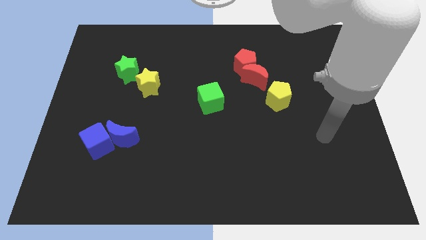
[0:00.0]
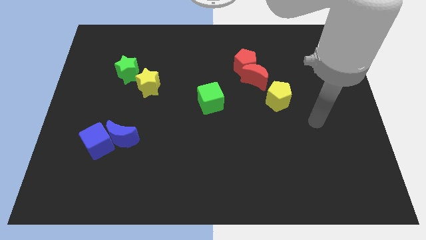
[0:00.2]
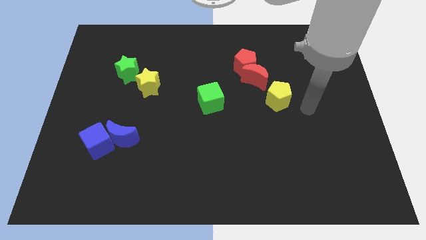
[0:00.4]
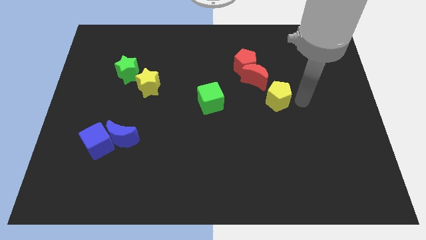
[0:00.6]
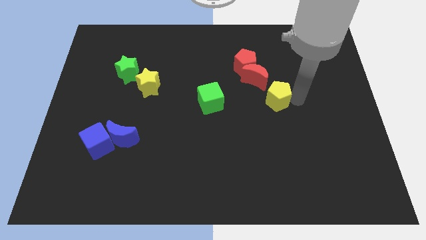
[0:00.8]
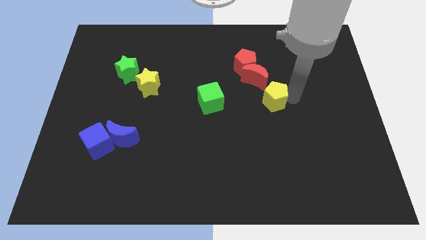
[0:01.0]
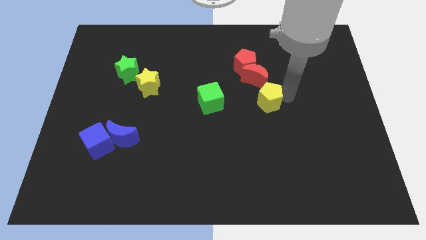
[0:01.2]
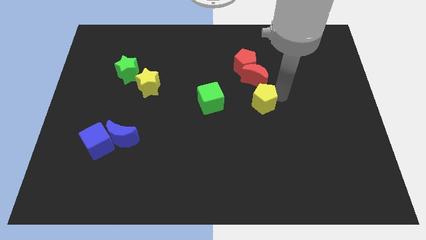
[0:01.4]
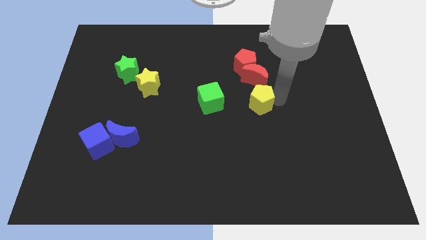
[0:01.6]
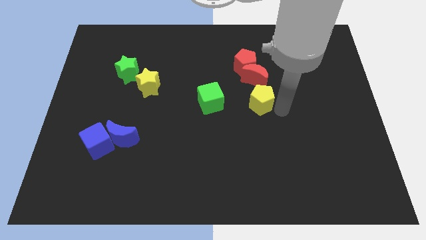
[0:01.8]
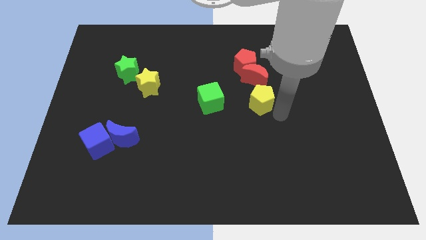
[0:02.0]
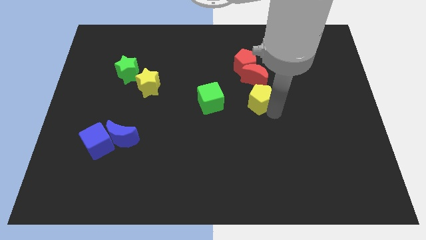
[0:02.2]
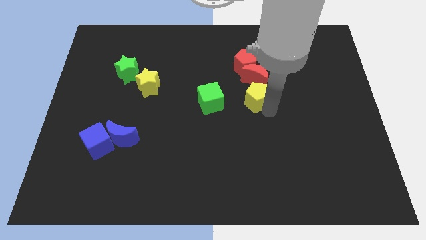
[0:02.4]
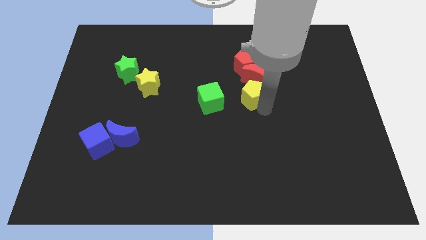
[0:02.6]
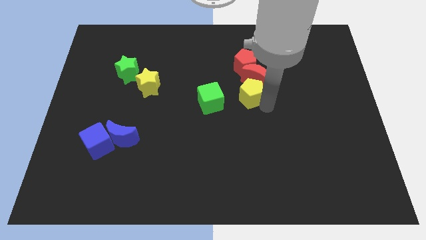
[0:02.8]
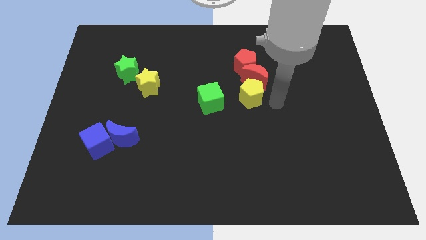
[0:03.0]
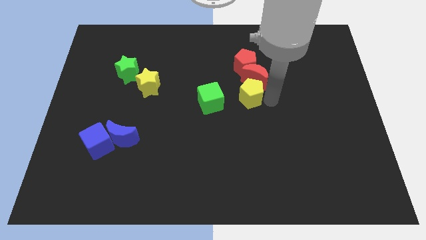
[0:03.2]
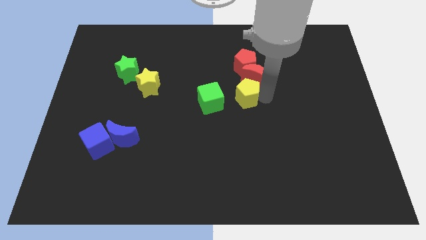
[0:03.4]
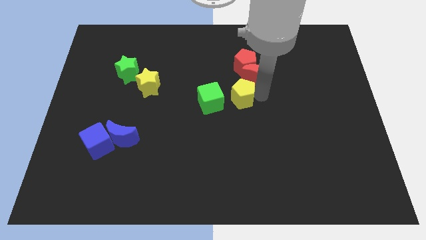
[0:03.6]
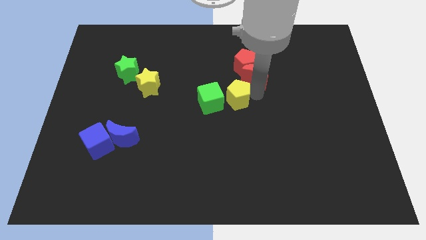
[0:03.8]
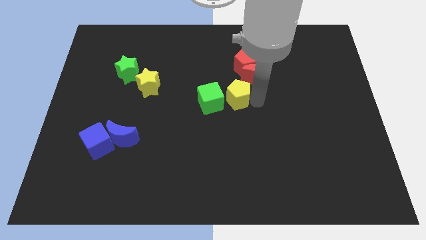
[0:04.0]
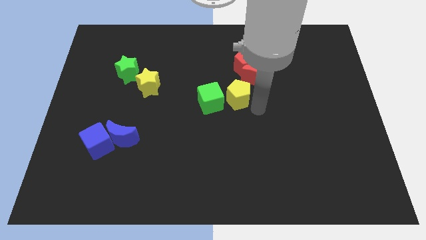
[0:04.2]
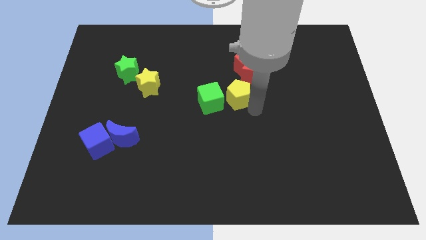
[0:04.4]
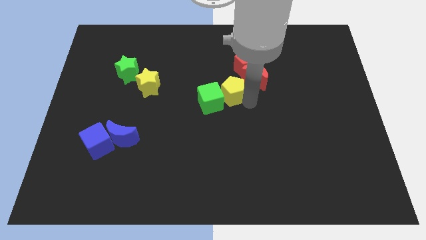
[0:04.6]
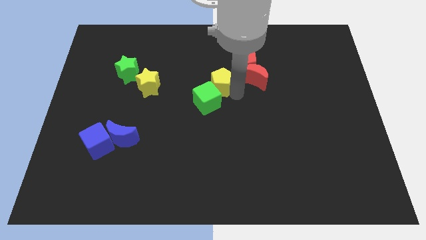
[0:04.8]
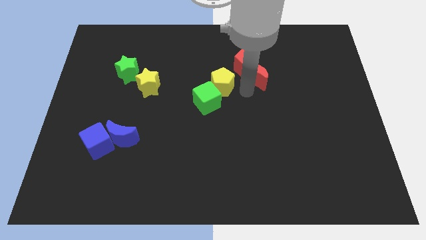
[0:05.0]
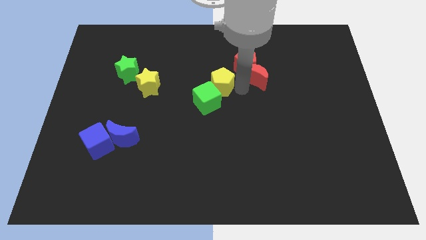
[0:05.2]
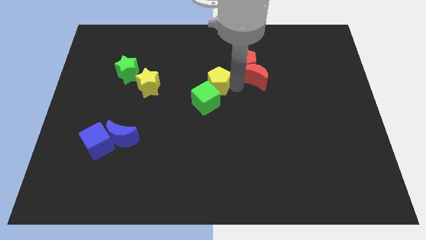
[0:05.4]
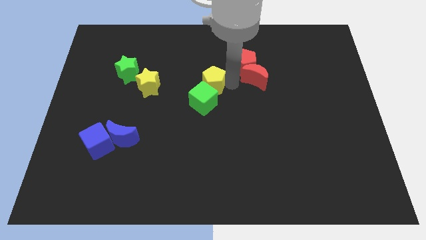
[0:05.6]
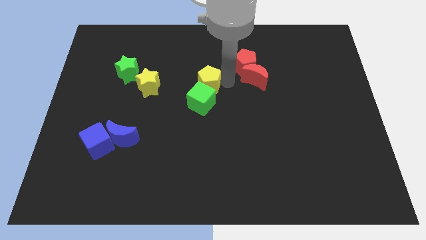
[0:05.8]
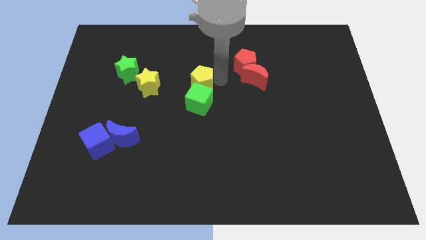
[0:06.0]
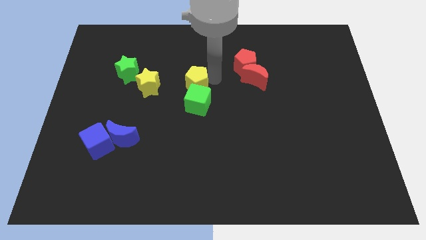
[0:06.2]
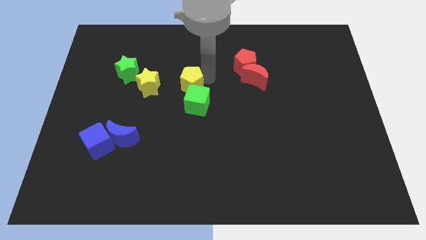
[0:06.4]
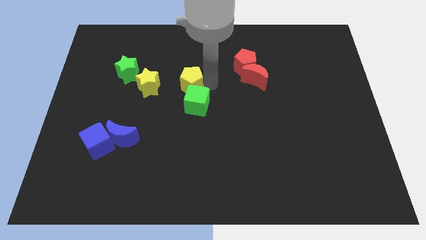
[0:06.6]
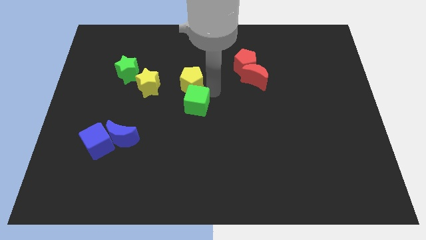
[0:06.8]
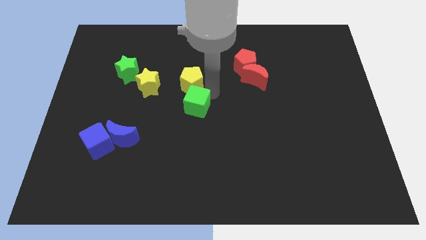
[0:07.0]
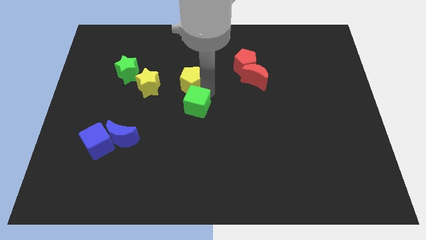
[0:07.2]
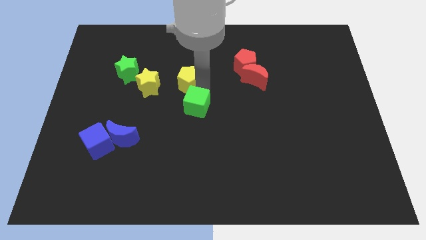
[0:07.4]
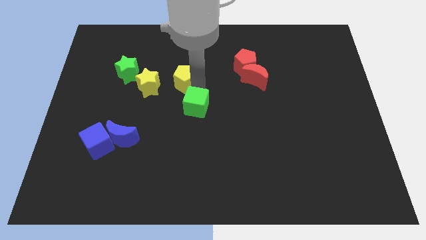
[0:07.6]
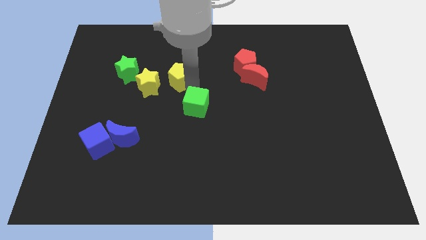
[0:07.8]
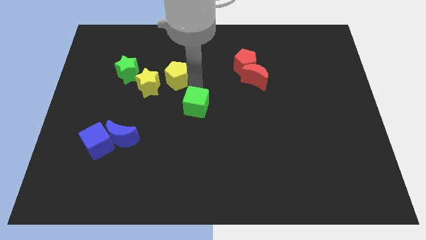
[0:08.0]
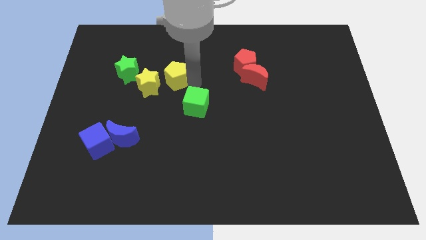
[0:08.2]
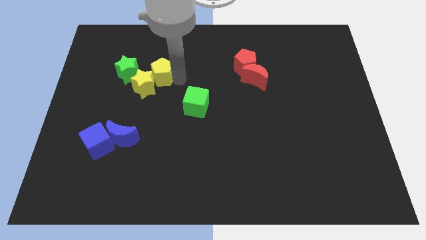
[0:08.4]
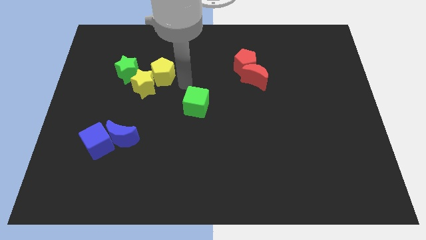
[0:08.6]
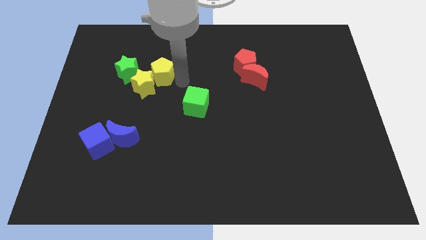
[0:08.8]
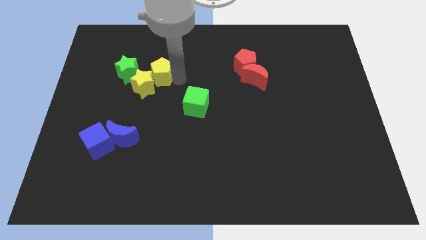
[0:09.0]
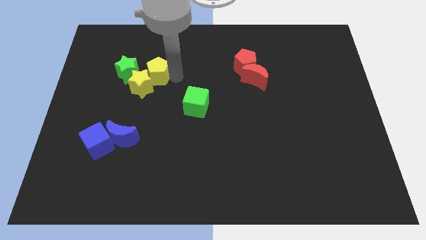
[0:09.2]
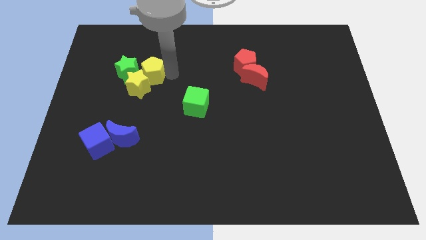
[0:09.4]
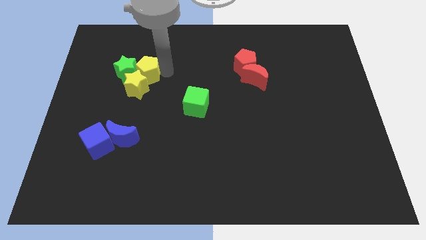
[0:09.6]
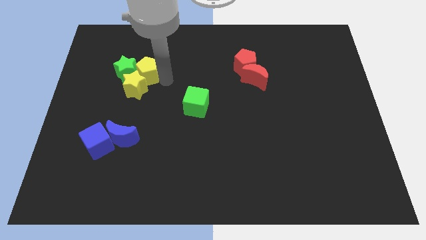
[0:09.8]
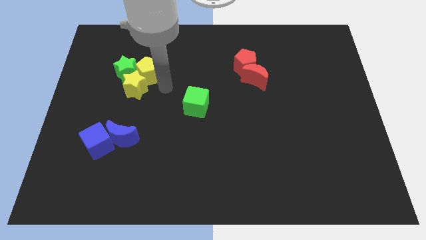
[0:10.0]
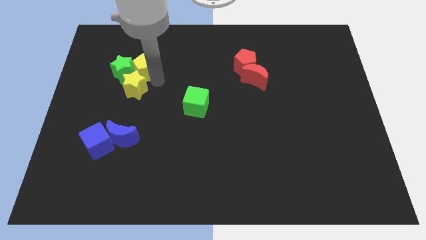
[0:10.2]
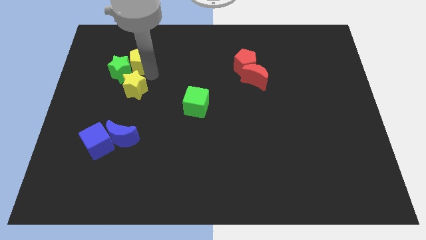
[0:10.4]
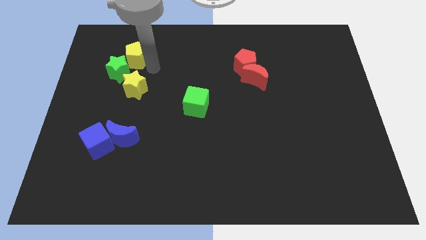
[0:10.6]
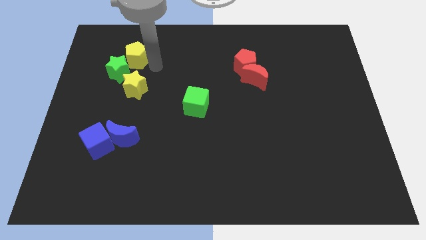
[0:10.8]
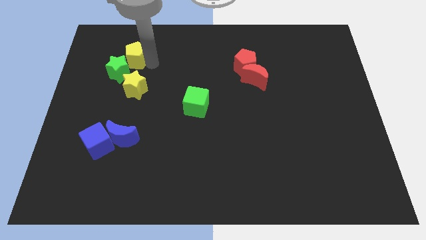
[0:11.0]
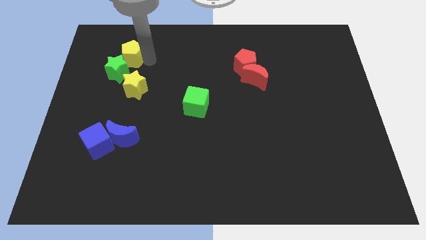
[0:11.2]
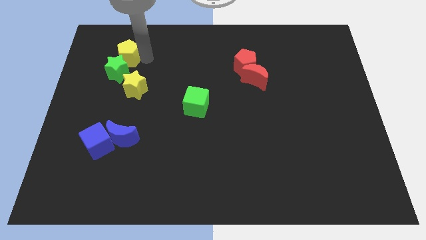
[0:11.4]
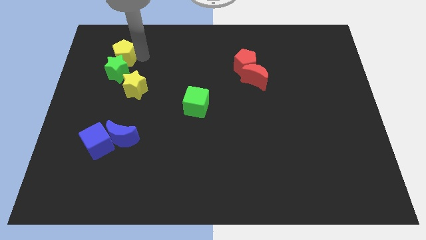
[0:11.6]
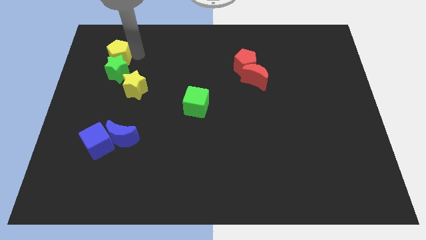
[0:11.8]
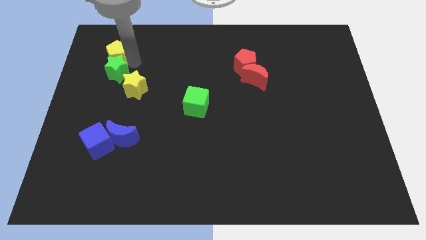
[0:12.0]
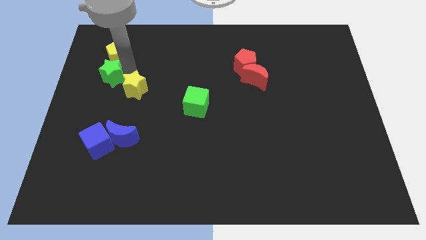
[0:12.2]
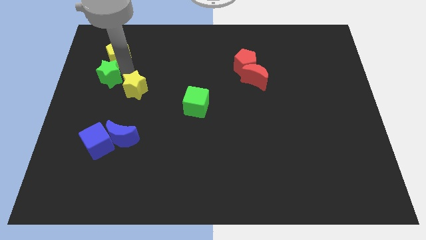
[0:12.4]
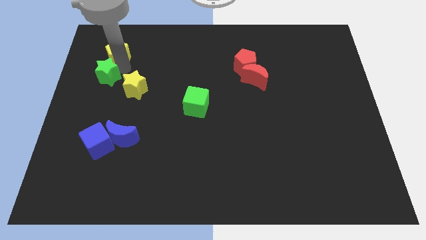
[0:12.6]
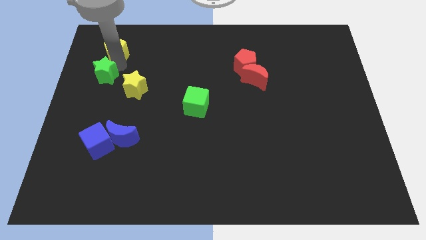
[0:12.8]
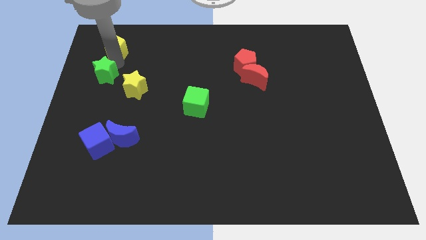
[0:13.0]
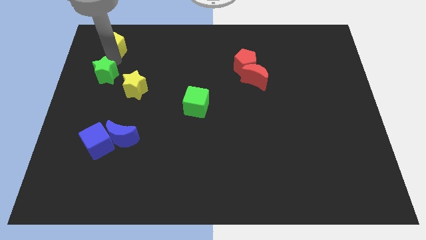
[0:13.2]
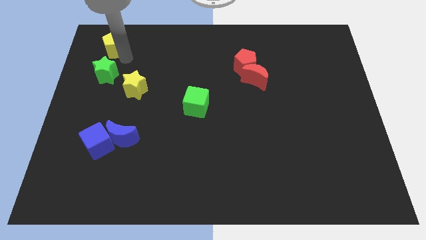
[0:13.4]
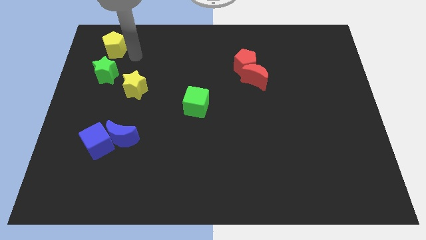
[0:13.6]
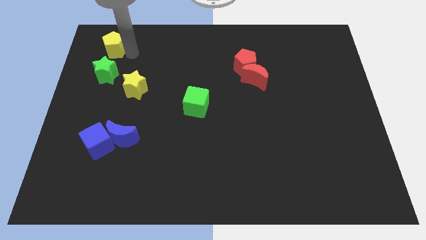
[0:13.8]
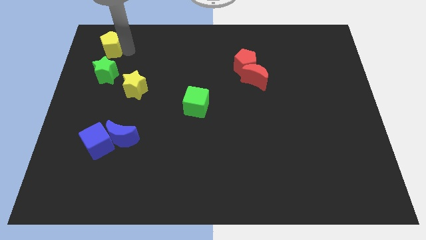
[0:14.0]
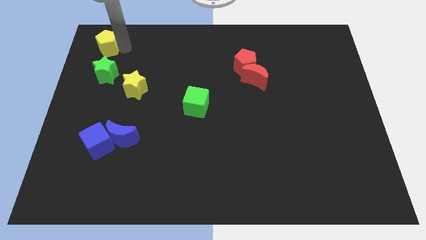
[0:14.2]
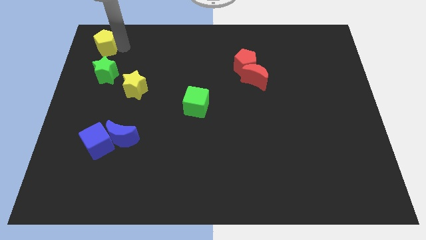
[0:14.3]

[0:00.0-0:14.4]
put the yellow pentagon to the top left corner
